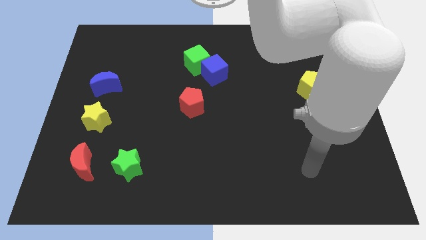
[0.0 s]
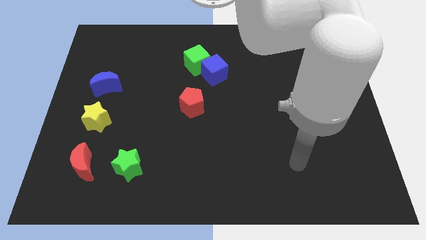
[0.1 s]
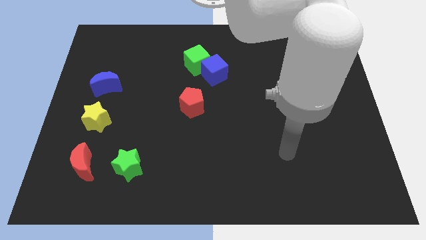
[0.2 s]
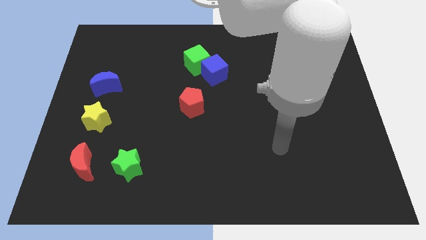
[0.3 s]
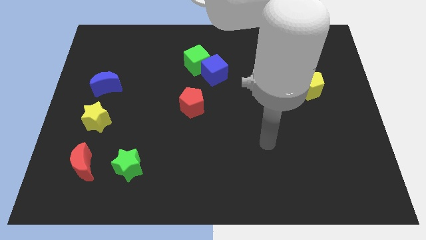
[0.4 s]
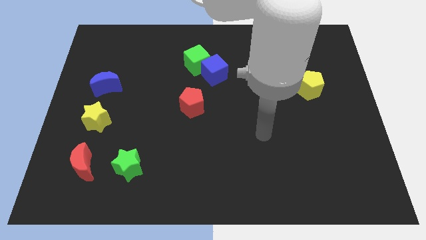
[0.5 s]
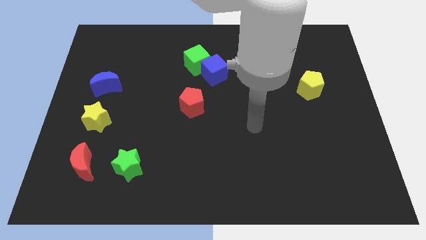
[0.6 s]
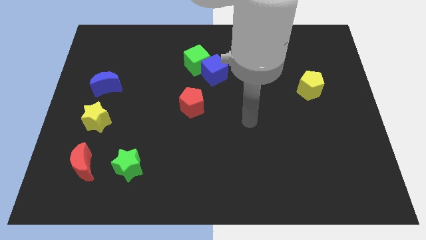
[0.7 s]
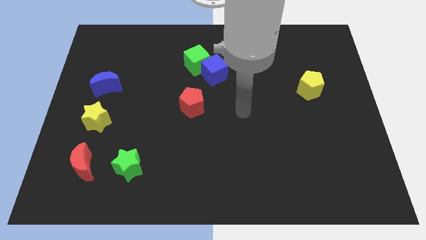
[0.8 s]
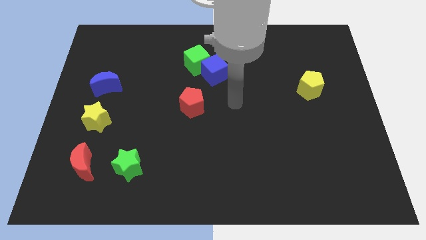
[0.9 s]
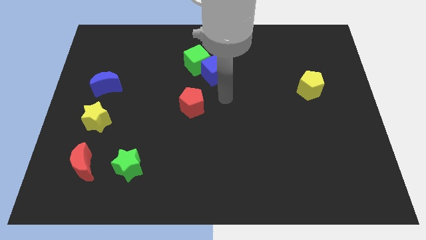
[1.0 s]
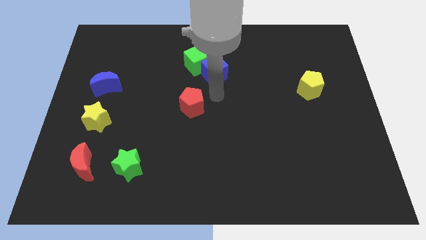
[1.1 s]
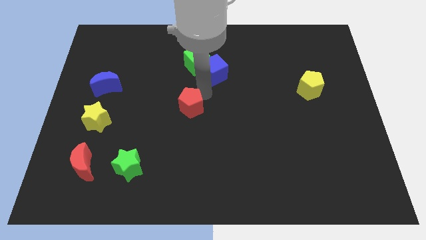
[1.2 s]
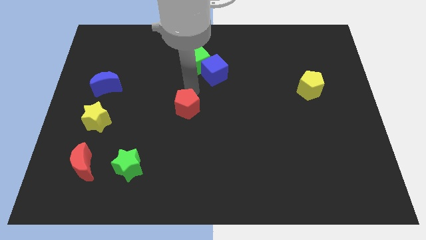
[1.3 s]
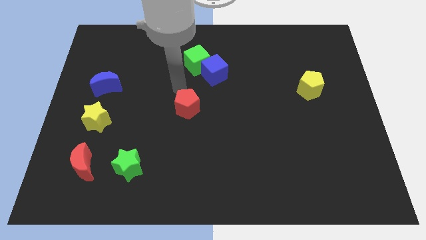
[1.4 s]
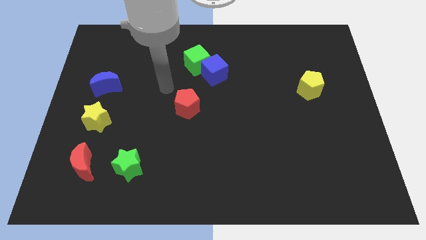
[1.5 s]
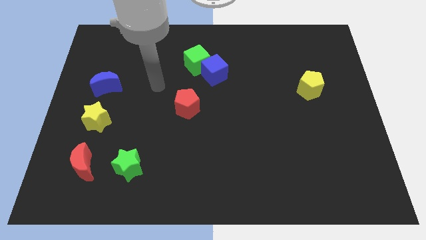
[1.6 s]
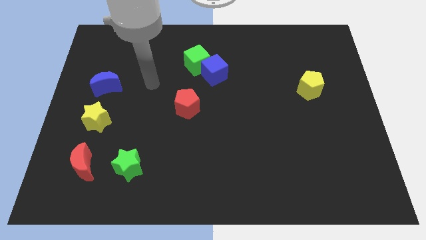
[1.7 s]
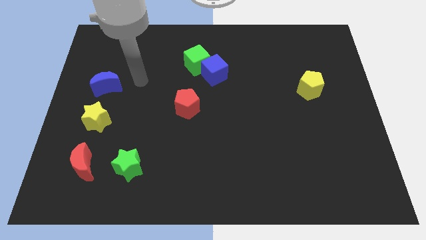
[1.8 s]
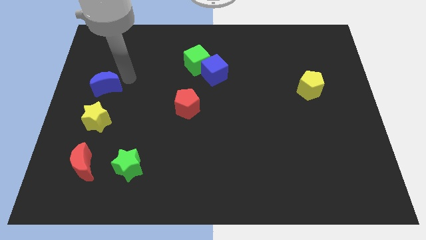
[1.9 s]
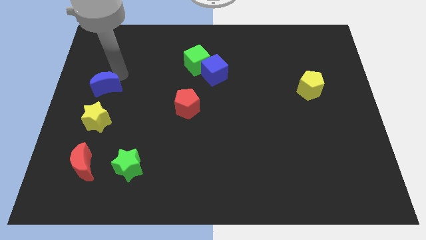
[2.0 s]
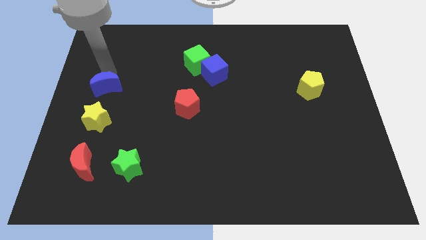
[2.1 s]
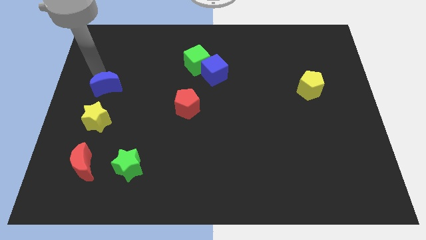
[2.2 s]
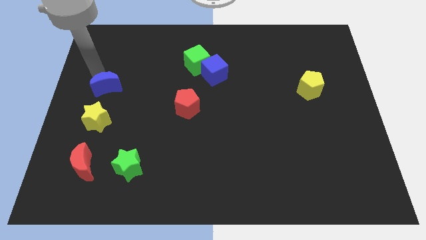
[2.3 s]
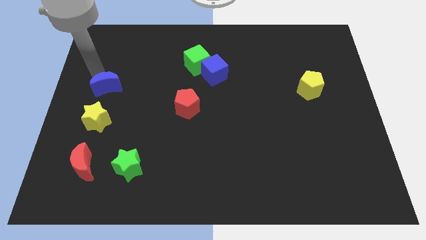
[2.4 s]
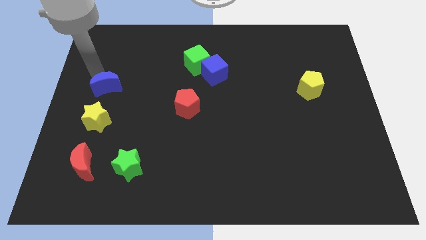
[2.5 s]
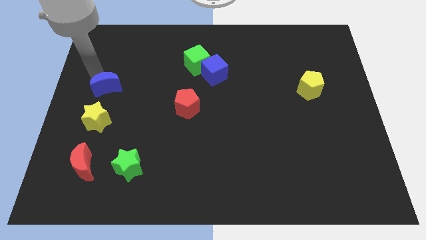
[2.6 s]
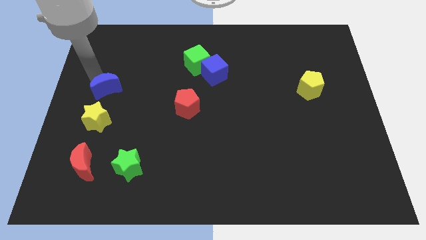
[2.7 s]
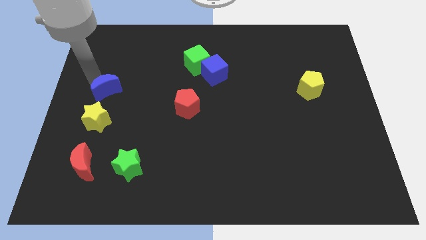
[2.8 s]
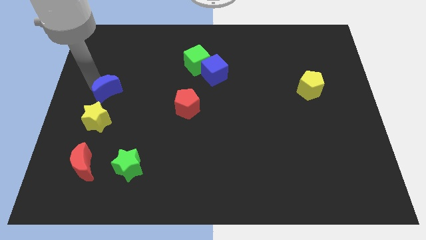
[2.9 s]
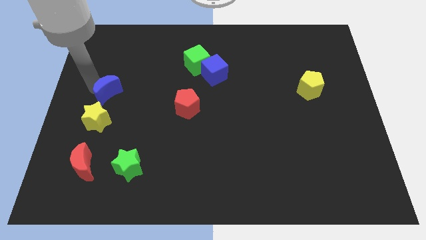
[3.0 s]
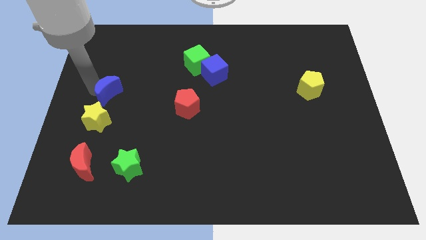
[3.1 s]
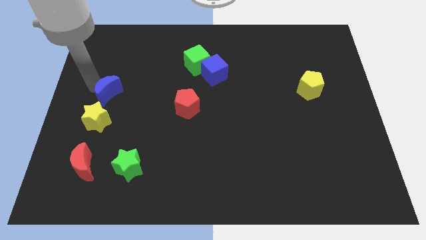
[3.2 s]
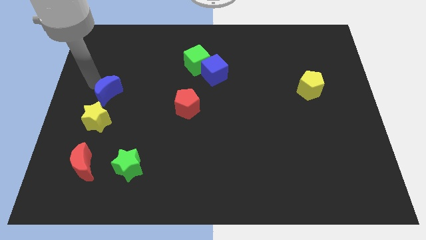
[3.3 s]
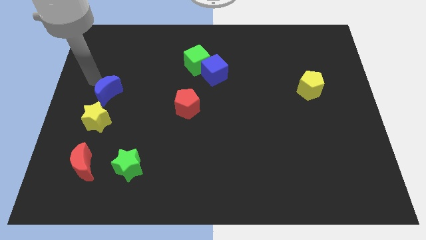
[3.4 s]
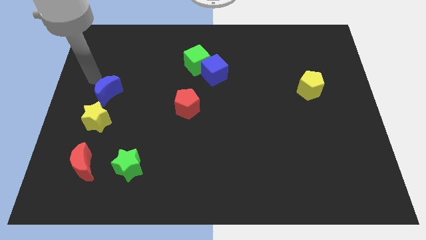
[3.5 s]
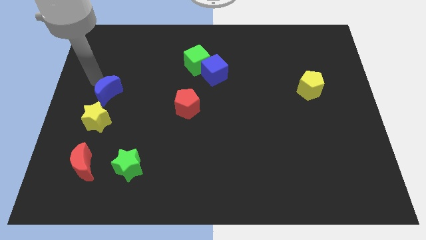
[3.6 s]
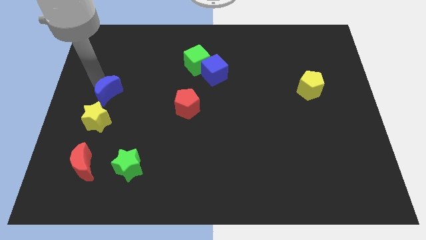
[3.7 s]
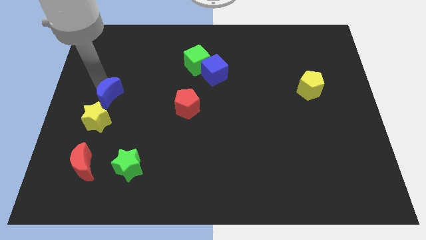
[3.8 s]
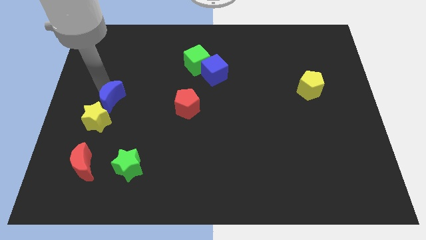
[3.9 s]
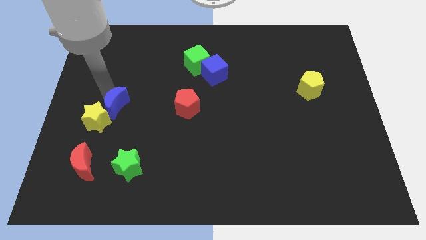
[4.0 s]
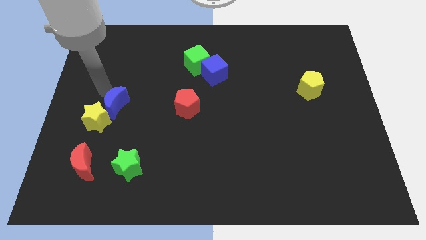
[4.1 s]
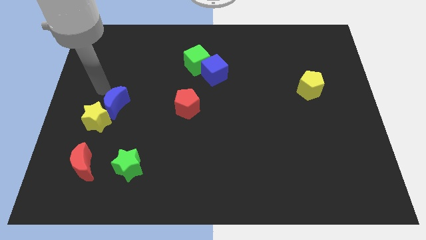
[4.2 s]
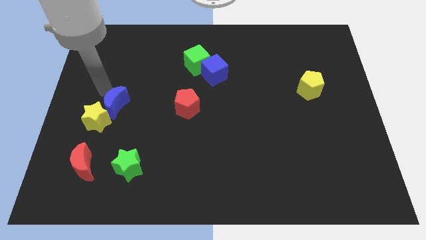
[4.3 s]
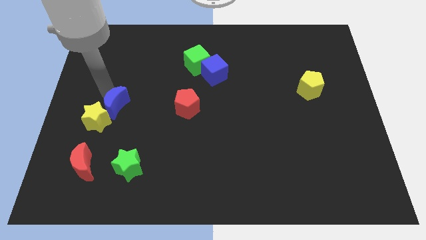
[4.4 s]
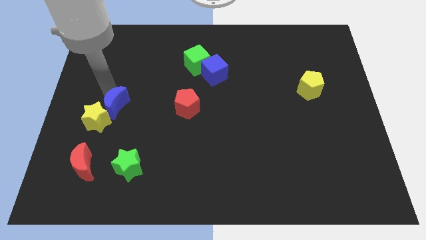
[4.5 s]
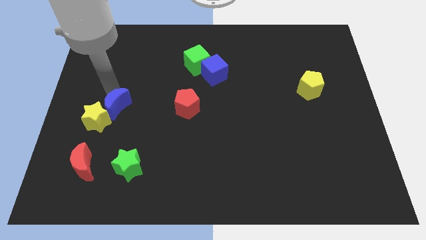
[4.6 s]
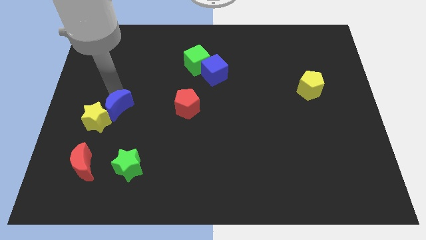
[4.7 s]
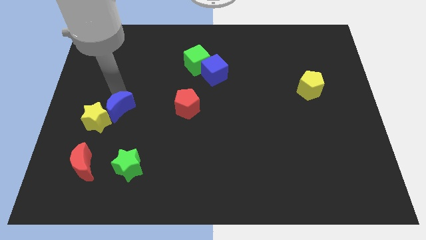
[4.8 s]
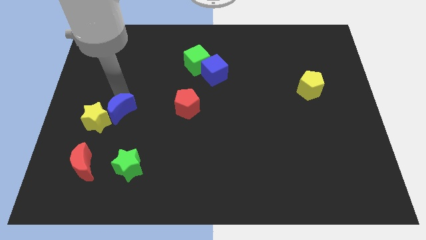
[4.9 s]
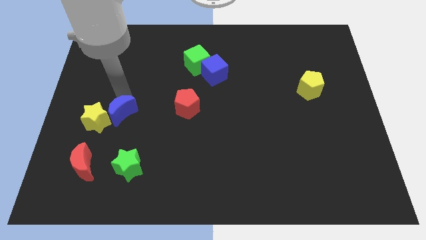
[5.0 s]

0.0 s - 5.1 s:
push the blue moon to the top side of the green star

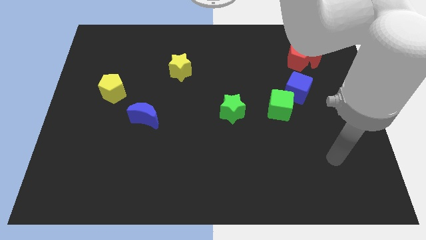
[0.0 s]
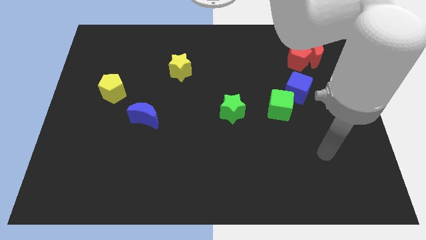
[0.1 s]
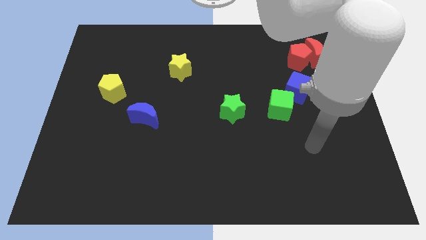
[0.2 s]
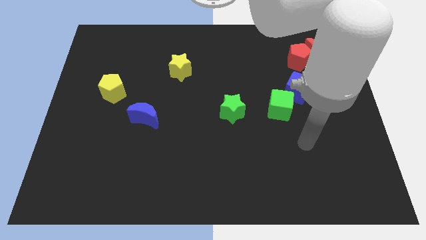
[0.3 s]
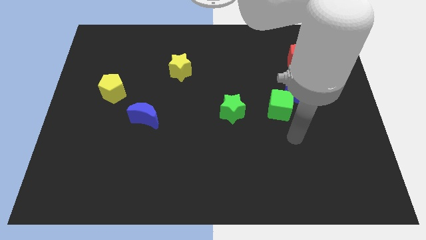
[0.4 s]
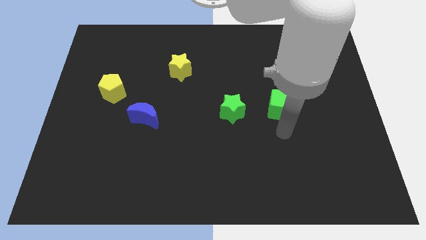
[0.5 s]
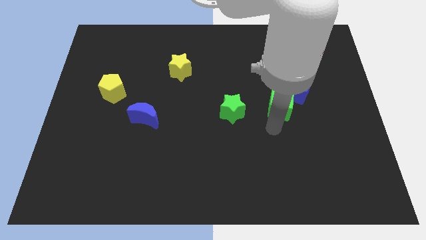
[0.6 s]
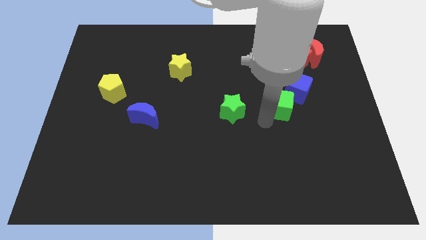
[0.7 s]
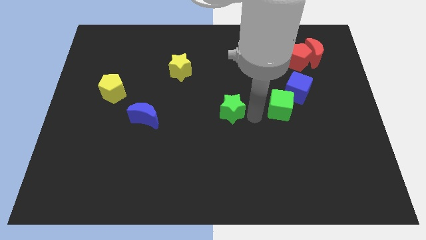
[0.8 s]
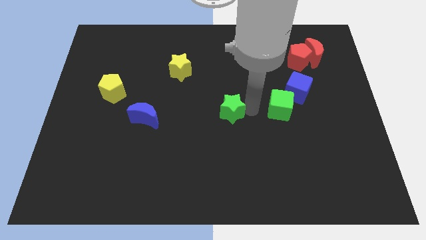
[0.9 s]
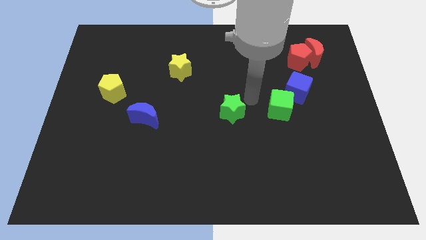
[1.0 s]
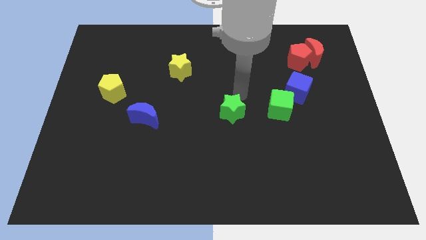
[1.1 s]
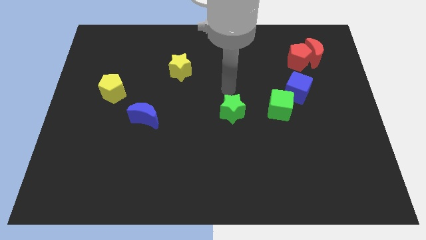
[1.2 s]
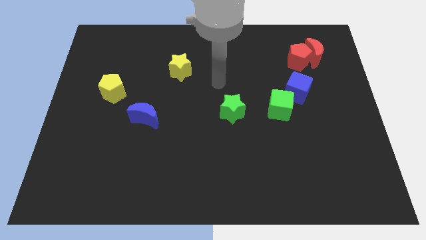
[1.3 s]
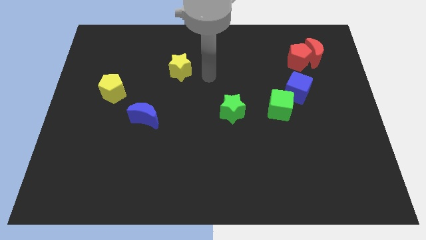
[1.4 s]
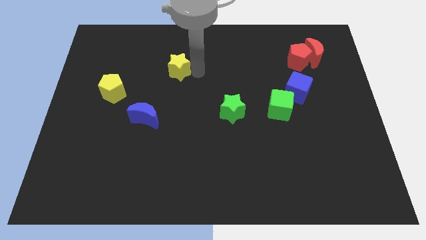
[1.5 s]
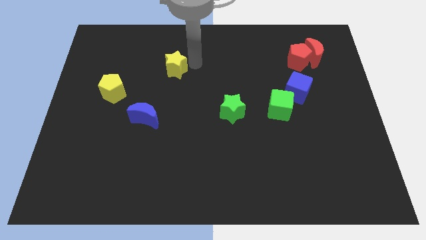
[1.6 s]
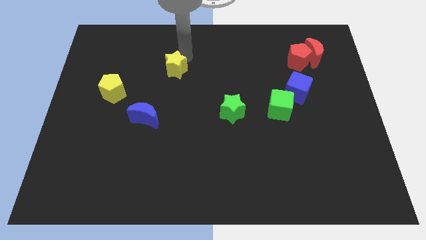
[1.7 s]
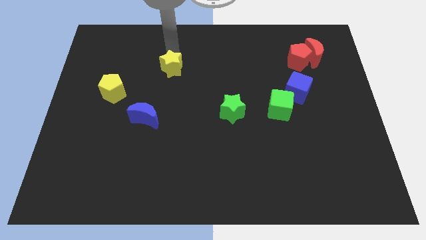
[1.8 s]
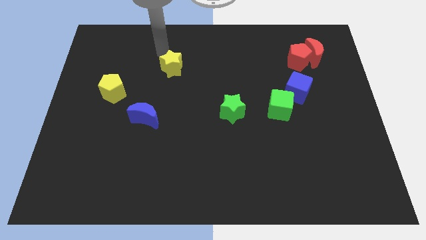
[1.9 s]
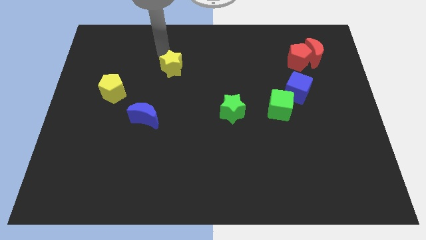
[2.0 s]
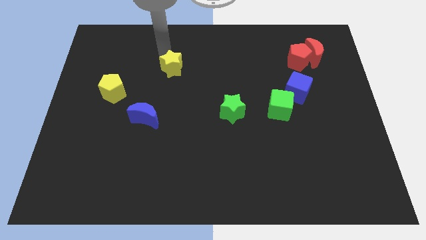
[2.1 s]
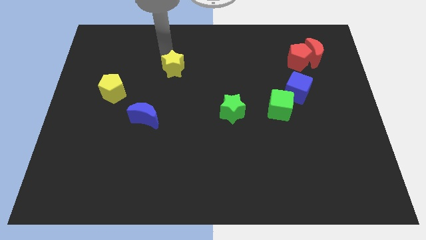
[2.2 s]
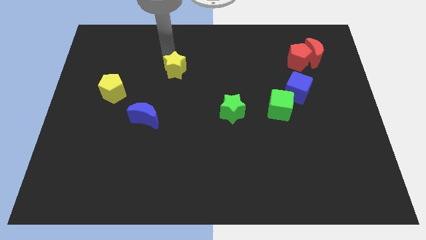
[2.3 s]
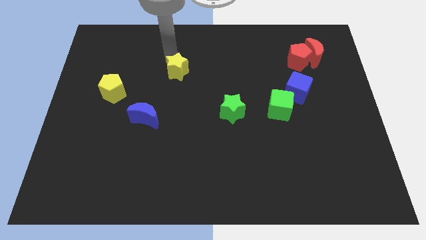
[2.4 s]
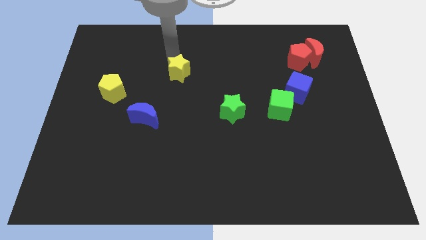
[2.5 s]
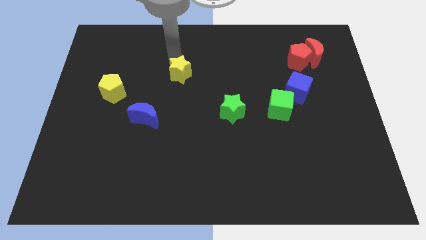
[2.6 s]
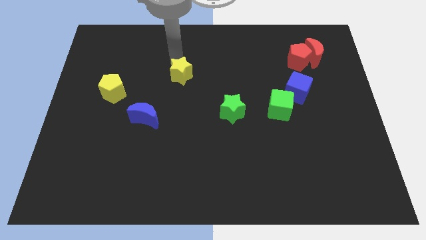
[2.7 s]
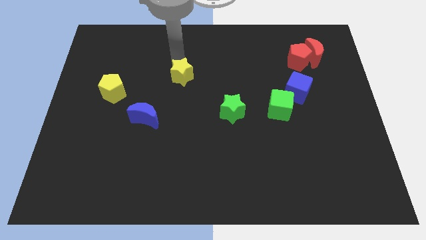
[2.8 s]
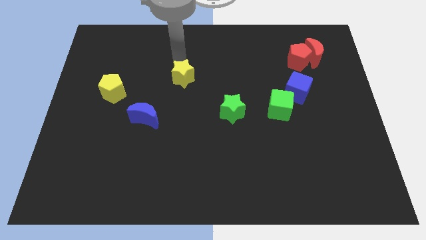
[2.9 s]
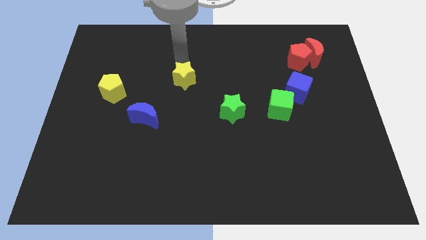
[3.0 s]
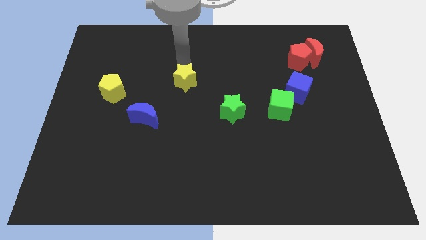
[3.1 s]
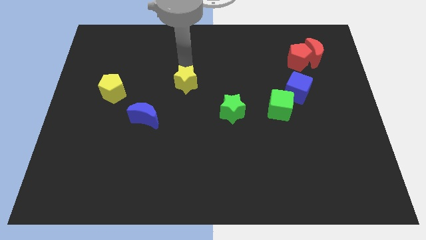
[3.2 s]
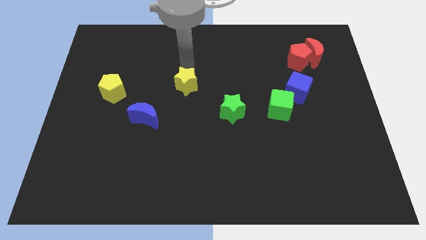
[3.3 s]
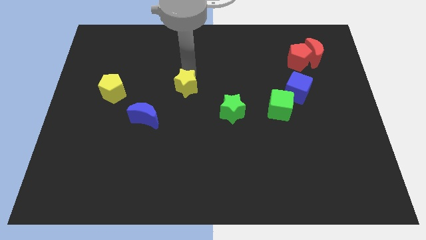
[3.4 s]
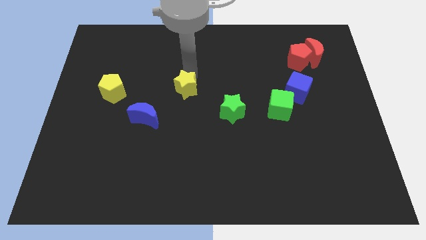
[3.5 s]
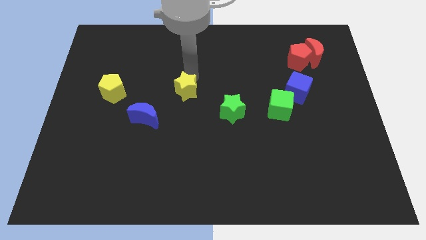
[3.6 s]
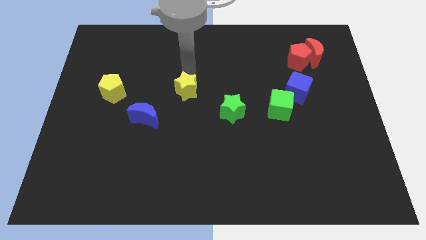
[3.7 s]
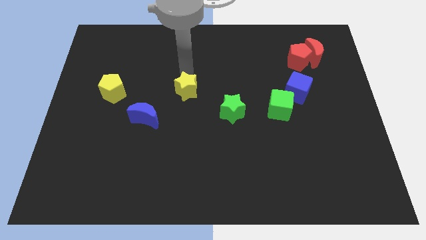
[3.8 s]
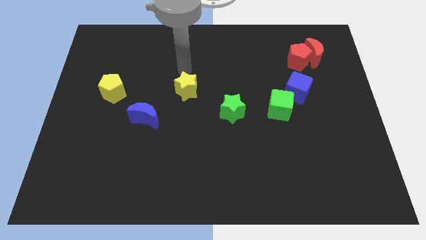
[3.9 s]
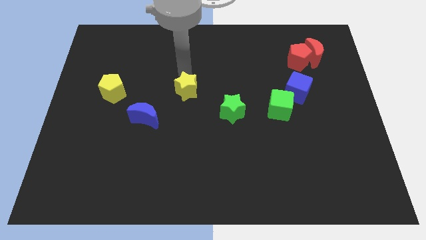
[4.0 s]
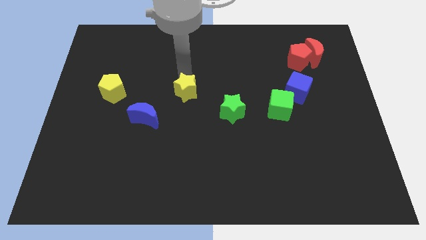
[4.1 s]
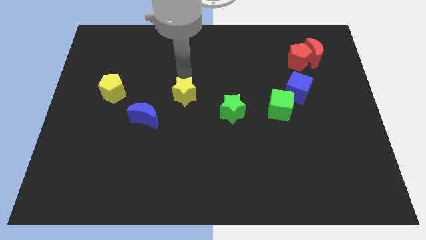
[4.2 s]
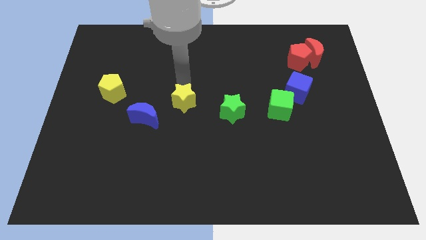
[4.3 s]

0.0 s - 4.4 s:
push the yellow star right of the blue moon
